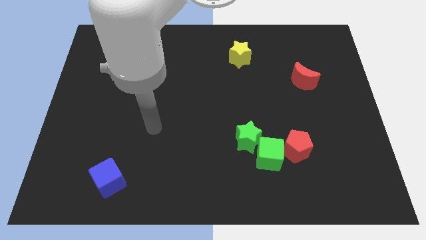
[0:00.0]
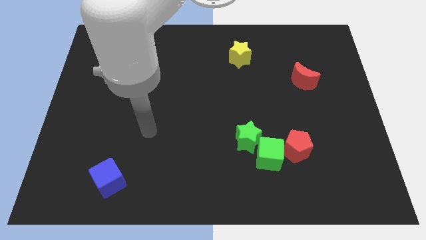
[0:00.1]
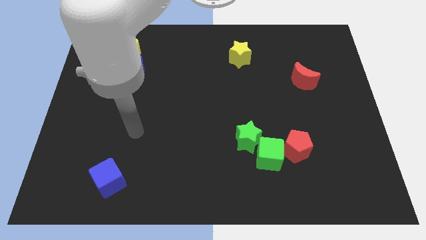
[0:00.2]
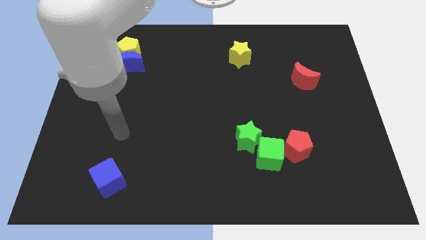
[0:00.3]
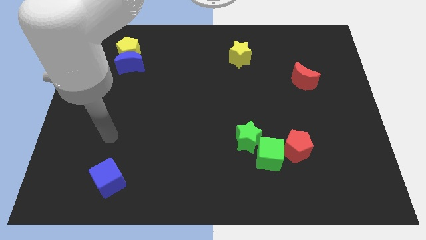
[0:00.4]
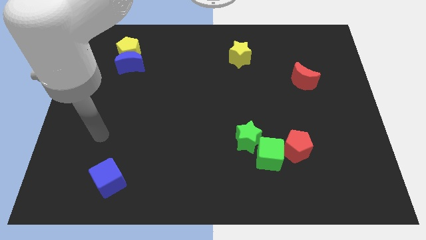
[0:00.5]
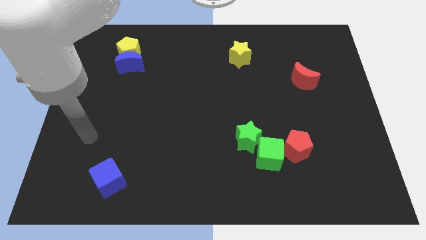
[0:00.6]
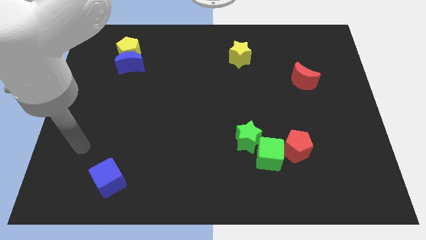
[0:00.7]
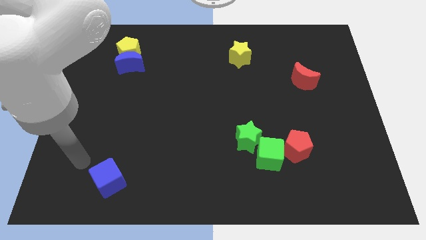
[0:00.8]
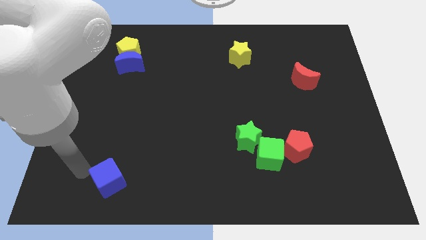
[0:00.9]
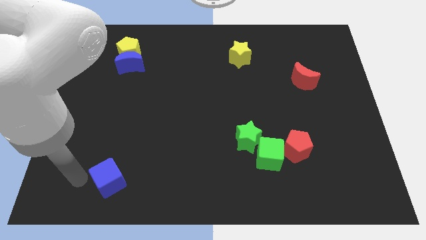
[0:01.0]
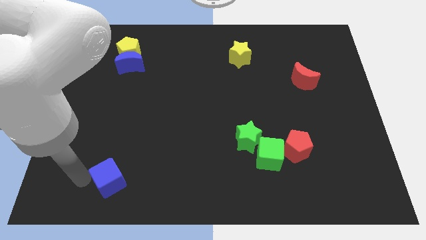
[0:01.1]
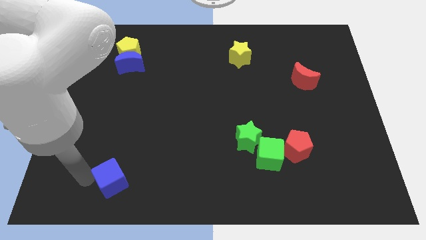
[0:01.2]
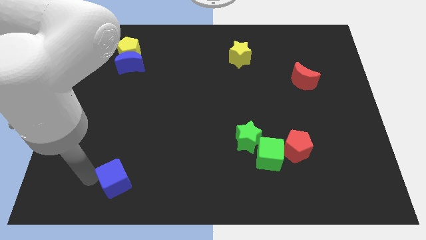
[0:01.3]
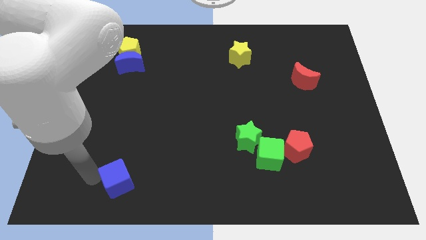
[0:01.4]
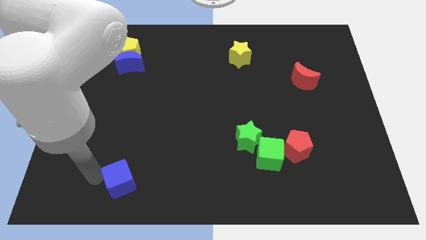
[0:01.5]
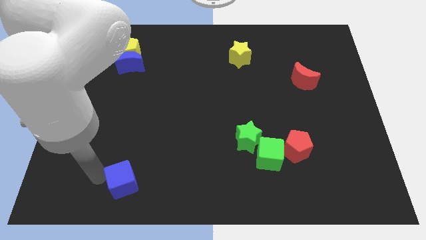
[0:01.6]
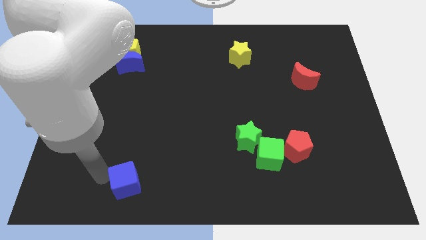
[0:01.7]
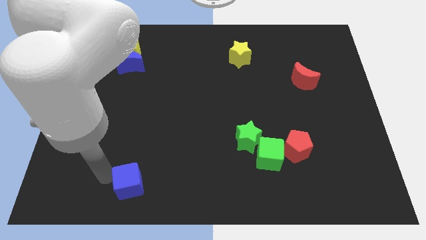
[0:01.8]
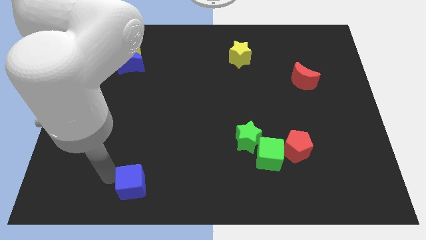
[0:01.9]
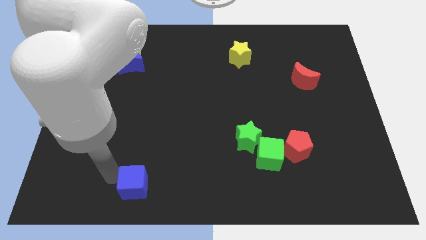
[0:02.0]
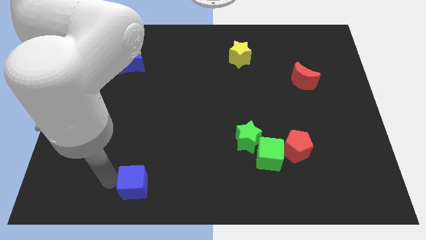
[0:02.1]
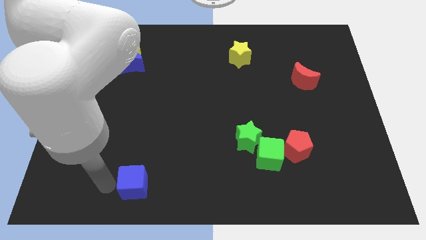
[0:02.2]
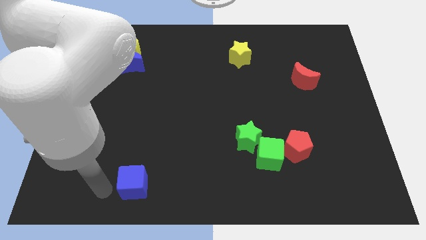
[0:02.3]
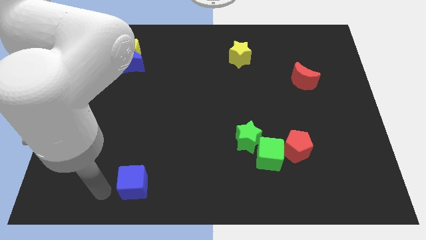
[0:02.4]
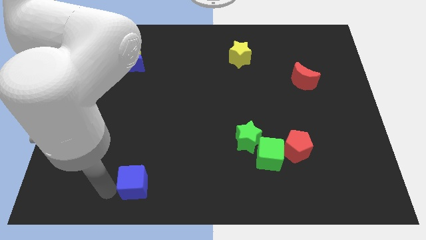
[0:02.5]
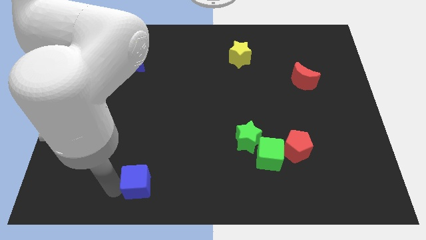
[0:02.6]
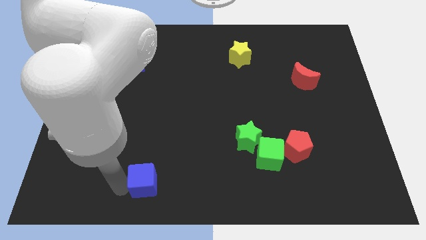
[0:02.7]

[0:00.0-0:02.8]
push the blue cube slightly right

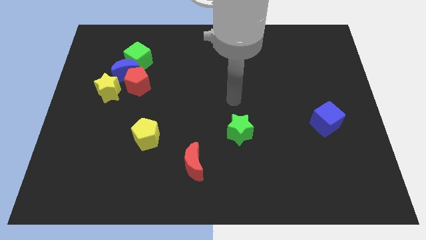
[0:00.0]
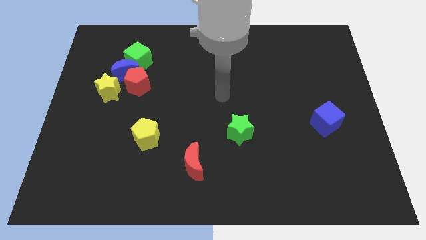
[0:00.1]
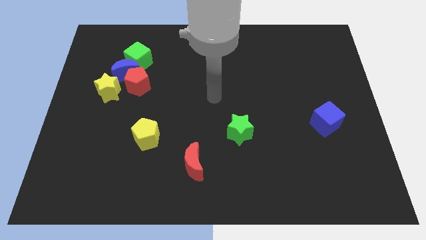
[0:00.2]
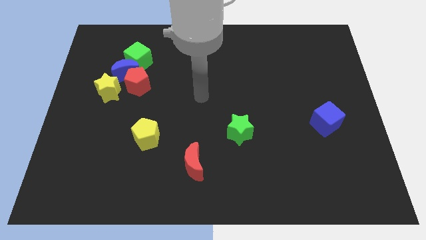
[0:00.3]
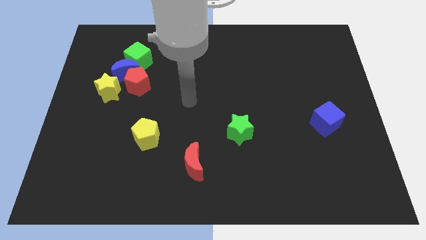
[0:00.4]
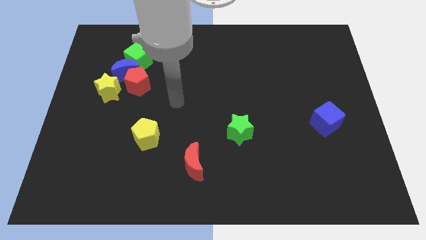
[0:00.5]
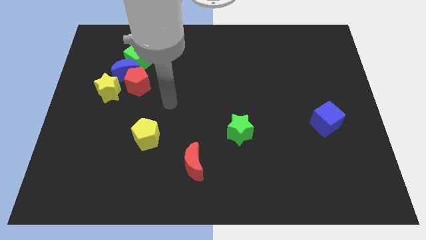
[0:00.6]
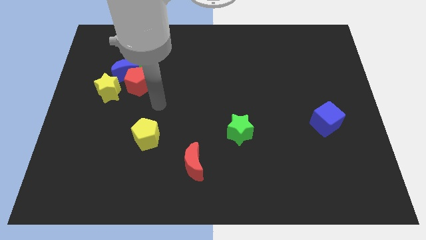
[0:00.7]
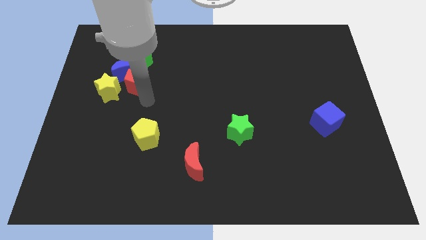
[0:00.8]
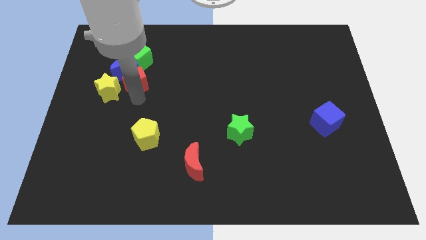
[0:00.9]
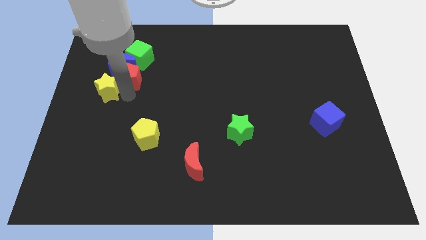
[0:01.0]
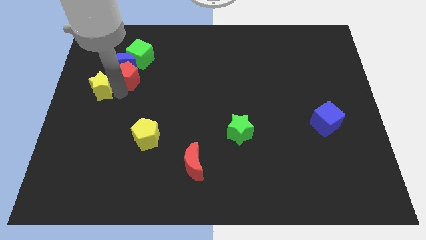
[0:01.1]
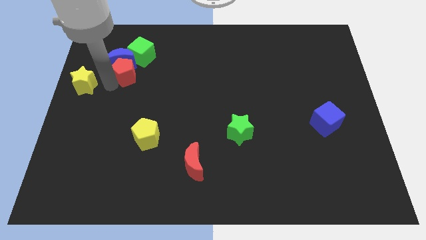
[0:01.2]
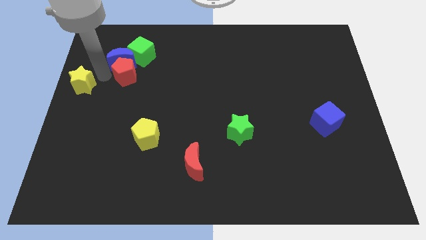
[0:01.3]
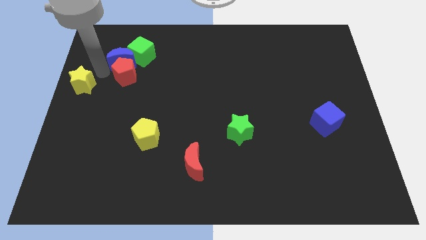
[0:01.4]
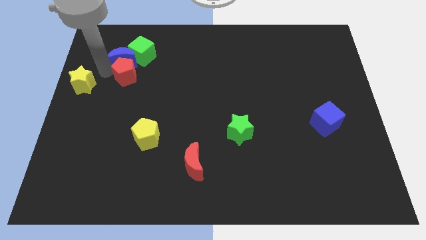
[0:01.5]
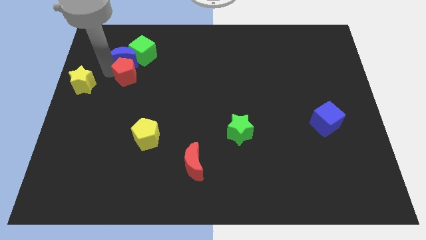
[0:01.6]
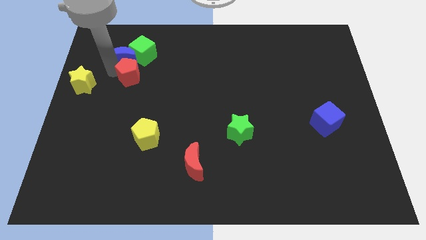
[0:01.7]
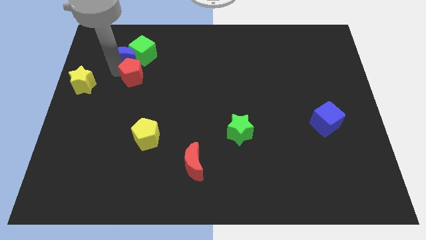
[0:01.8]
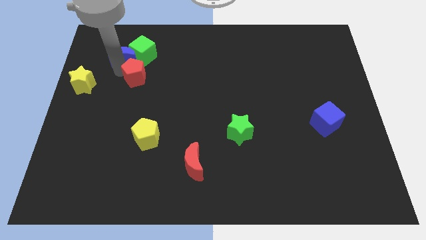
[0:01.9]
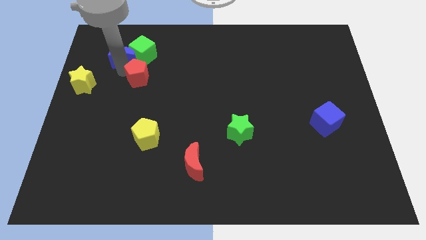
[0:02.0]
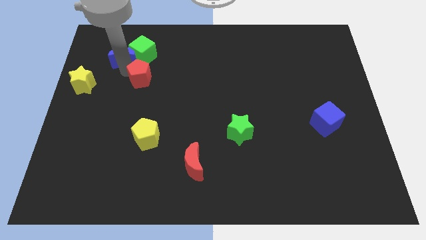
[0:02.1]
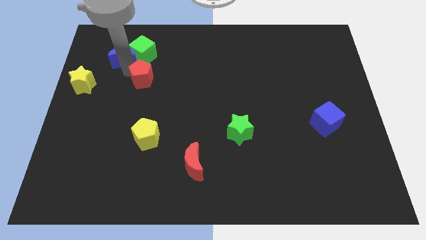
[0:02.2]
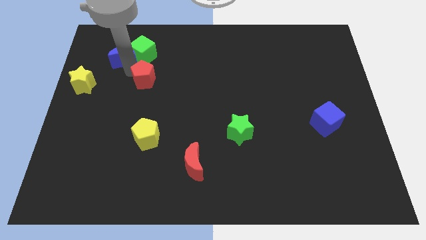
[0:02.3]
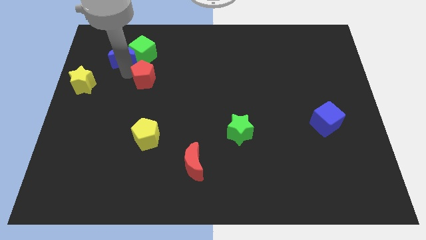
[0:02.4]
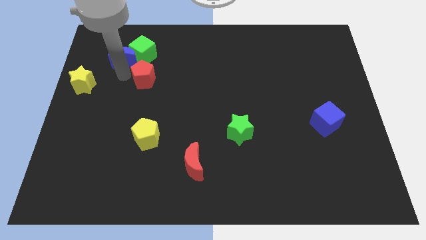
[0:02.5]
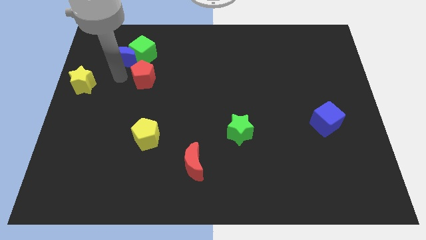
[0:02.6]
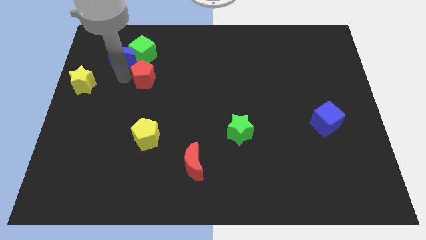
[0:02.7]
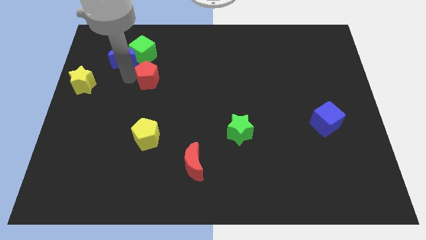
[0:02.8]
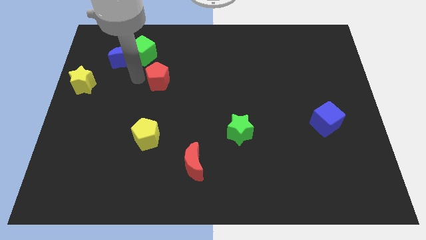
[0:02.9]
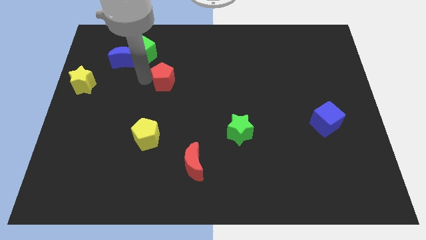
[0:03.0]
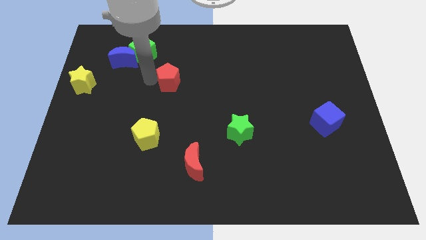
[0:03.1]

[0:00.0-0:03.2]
slightly push the red pentagon to the right

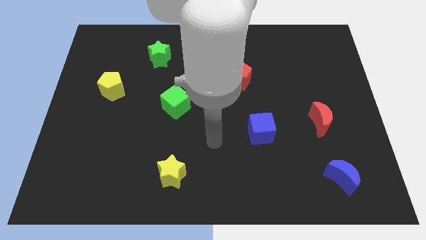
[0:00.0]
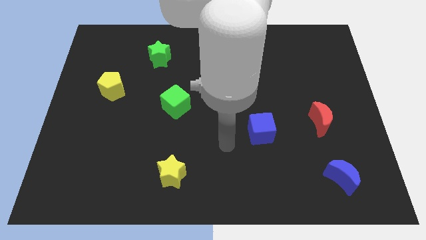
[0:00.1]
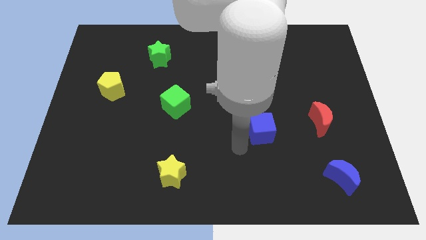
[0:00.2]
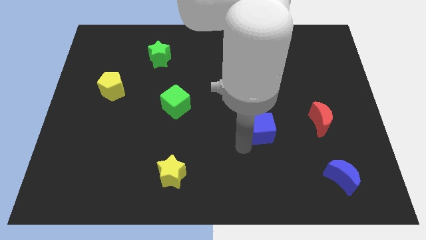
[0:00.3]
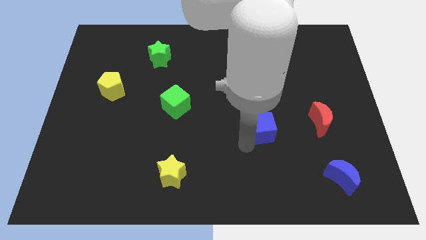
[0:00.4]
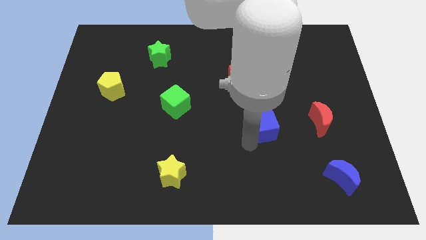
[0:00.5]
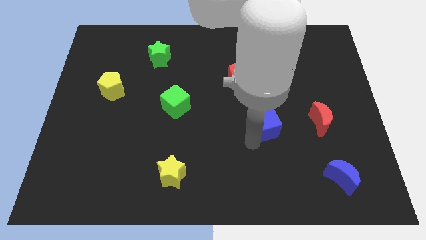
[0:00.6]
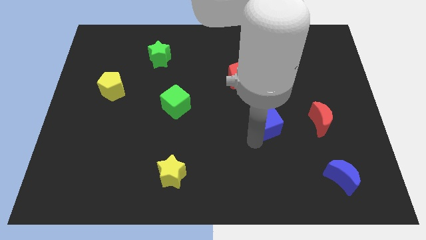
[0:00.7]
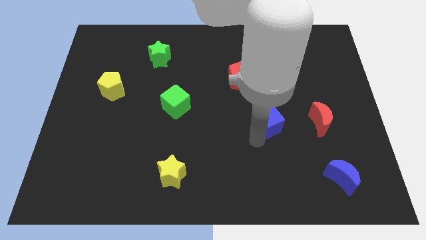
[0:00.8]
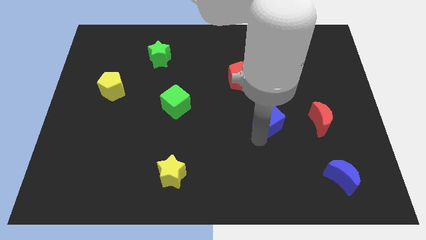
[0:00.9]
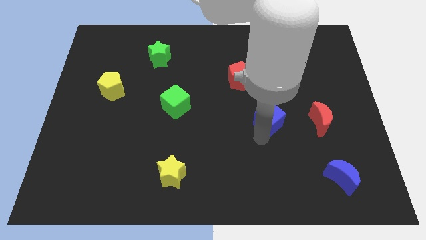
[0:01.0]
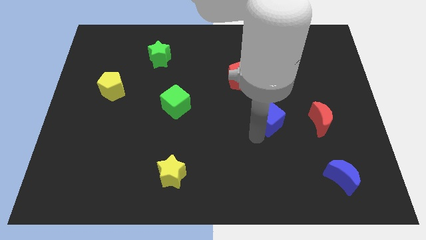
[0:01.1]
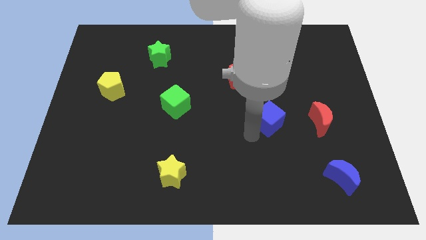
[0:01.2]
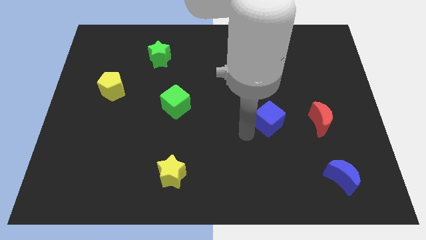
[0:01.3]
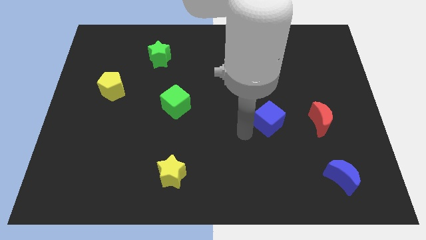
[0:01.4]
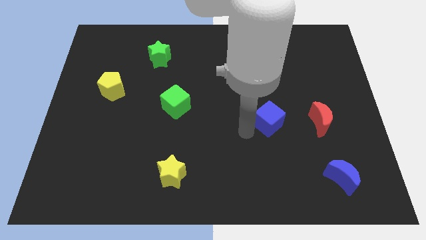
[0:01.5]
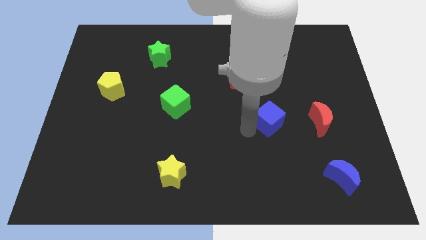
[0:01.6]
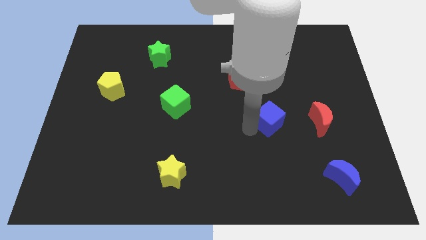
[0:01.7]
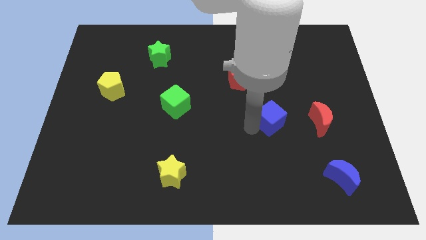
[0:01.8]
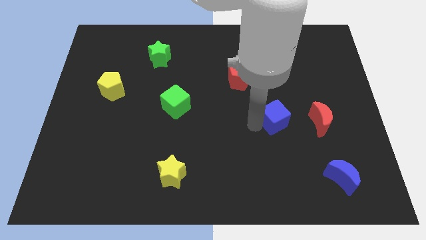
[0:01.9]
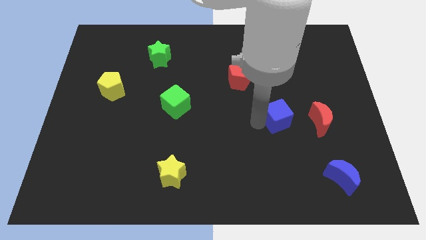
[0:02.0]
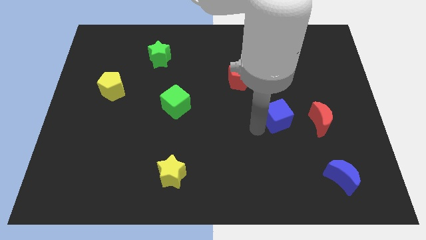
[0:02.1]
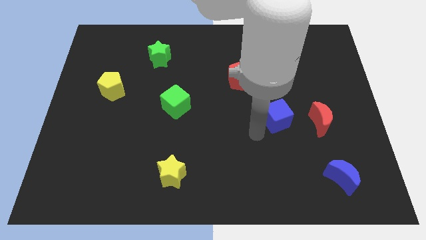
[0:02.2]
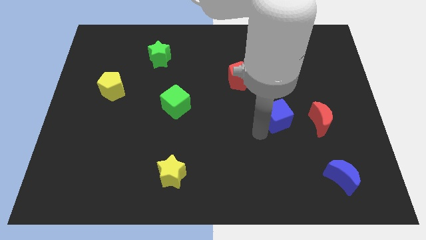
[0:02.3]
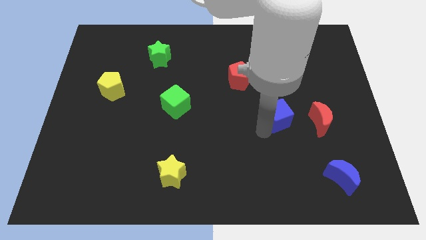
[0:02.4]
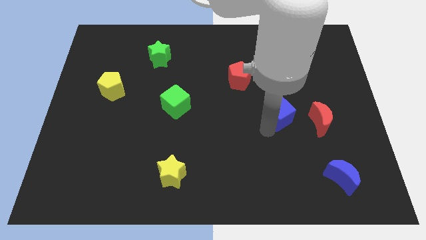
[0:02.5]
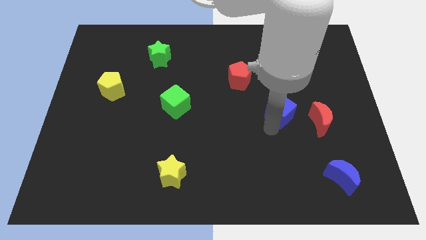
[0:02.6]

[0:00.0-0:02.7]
move the blue cube up and right a bit
